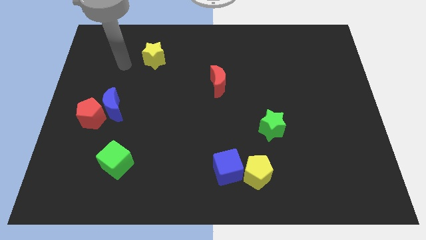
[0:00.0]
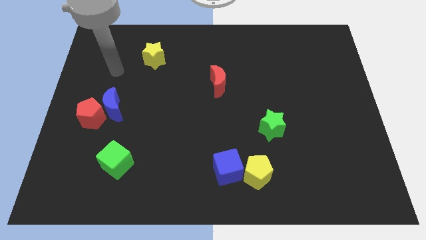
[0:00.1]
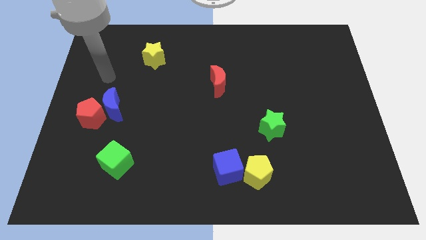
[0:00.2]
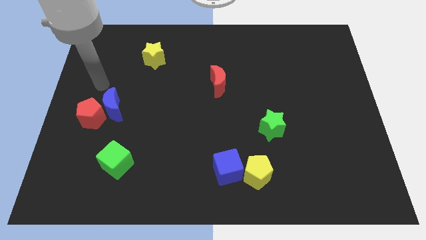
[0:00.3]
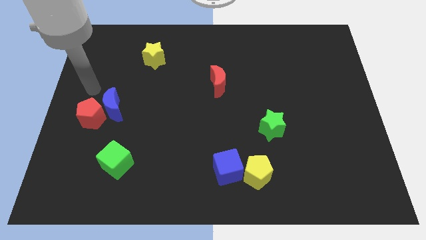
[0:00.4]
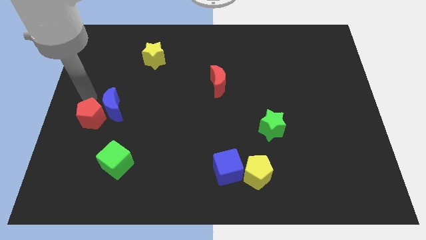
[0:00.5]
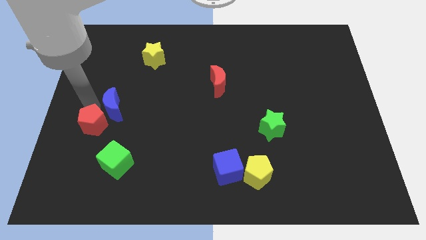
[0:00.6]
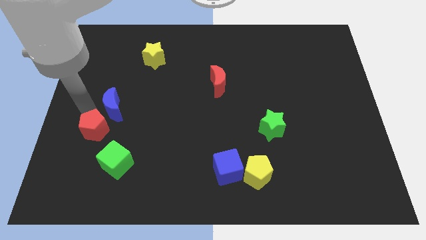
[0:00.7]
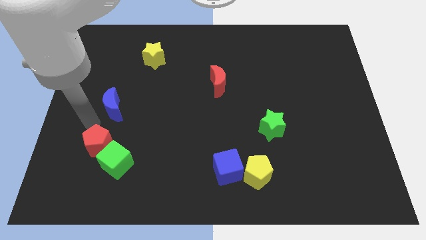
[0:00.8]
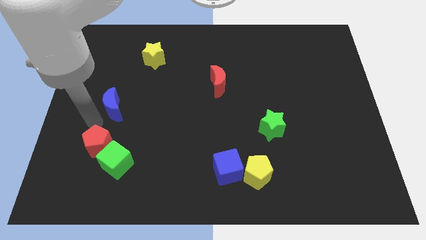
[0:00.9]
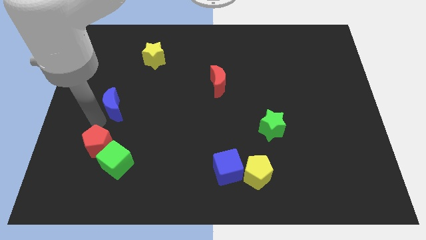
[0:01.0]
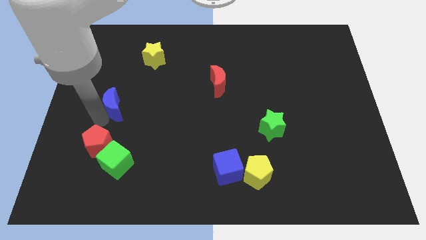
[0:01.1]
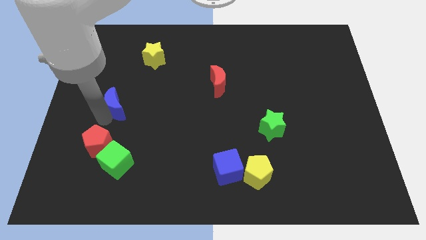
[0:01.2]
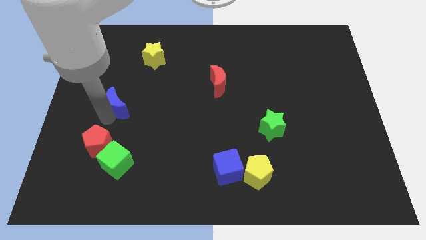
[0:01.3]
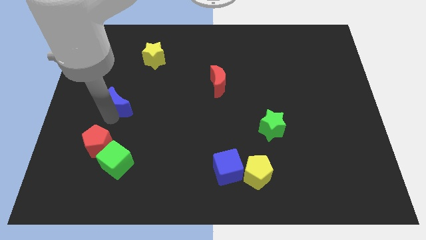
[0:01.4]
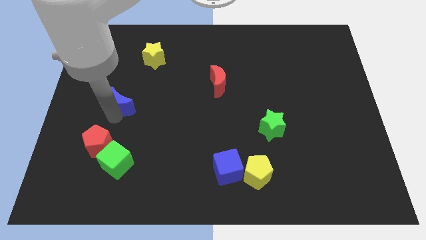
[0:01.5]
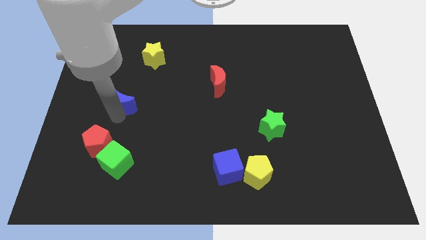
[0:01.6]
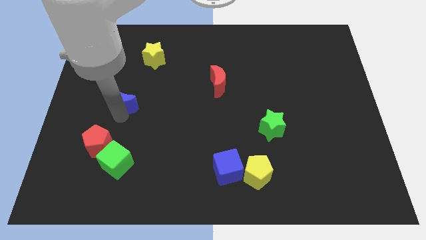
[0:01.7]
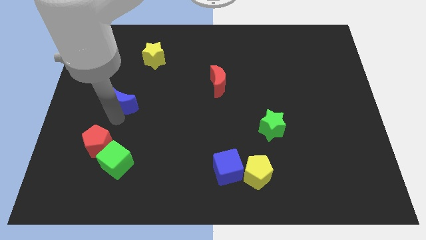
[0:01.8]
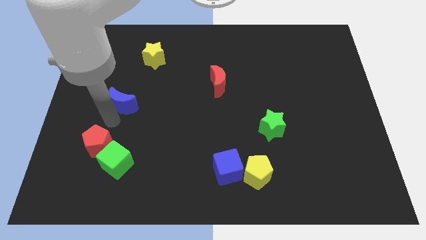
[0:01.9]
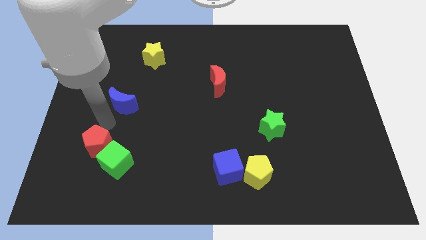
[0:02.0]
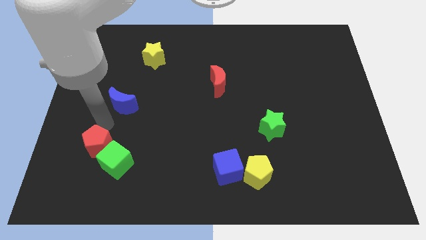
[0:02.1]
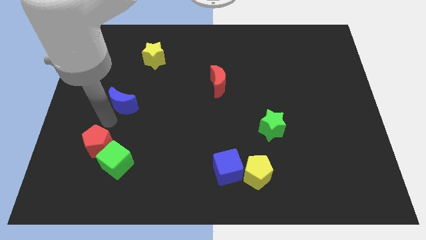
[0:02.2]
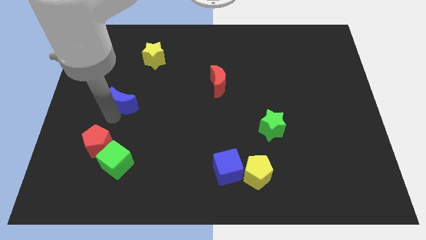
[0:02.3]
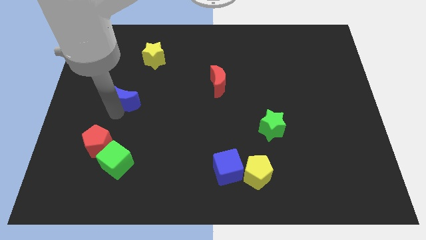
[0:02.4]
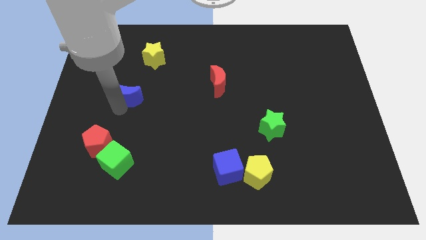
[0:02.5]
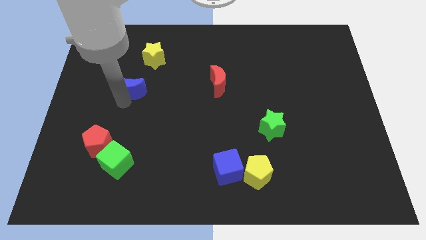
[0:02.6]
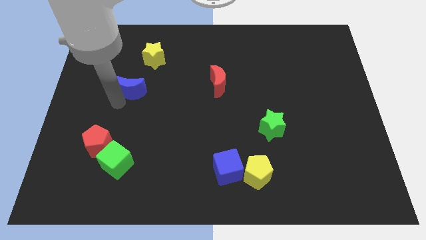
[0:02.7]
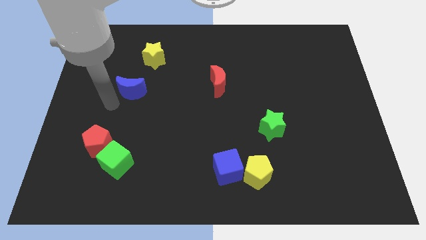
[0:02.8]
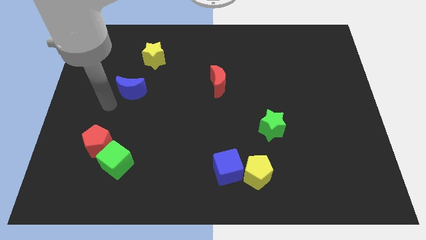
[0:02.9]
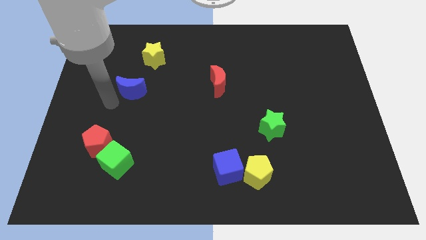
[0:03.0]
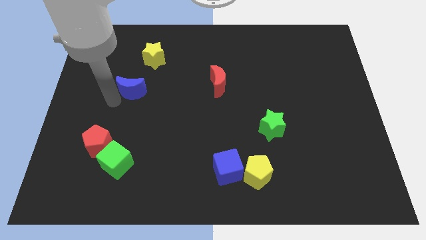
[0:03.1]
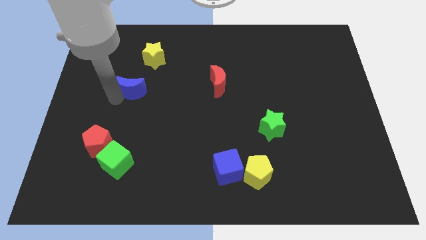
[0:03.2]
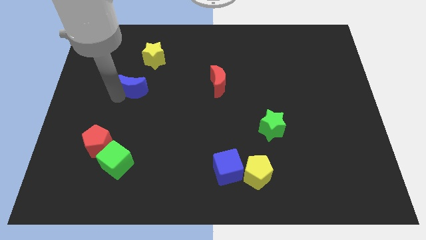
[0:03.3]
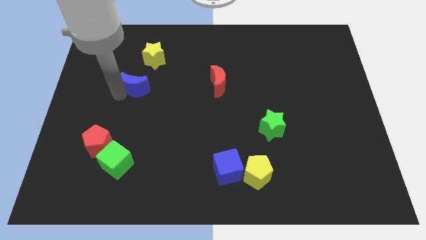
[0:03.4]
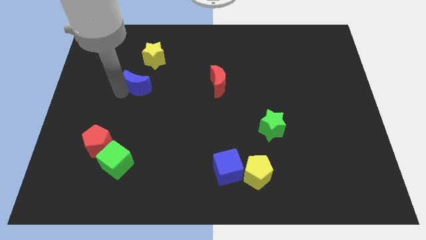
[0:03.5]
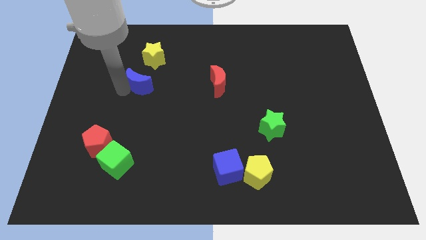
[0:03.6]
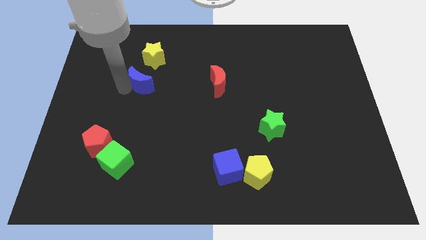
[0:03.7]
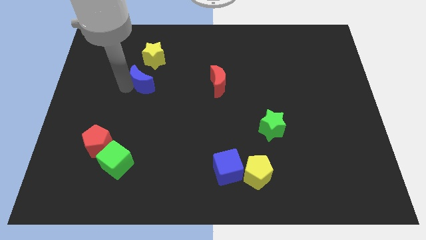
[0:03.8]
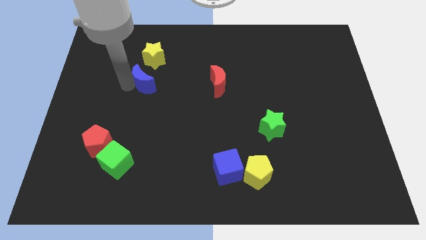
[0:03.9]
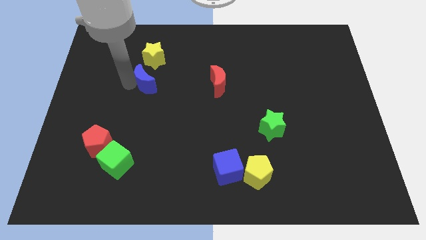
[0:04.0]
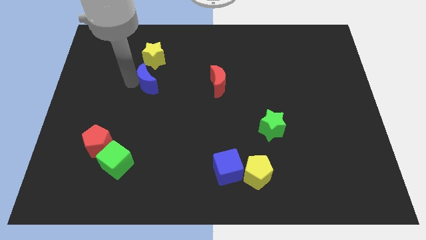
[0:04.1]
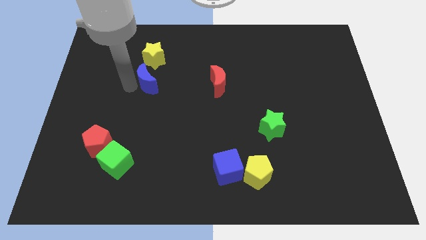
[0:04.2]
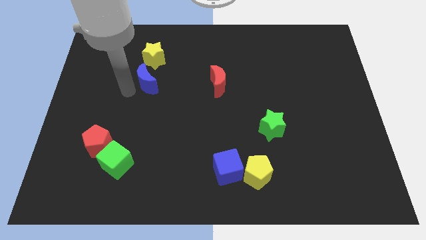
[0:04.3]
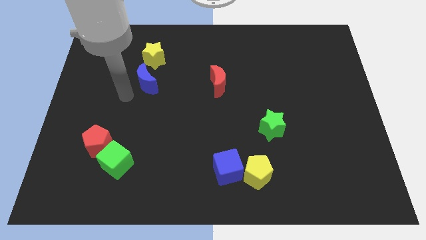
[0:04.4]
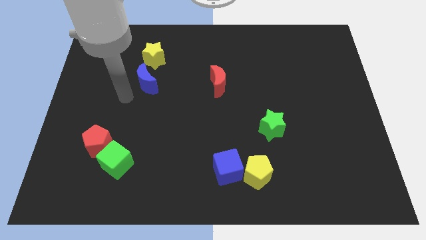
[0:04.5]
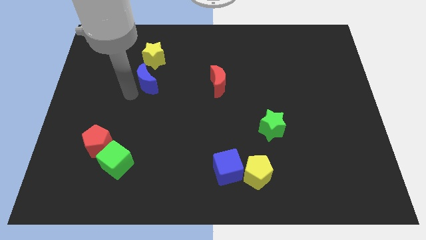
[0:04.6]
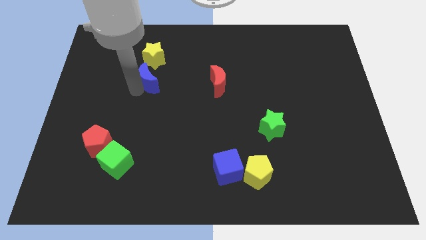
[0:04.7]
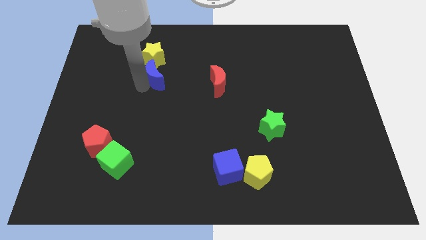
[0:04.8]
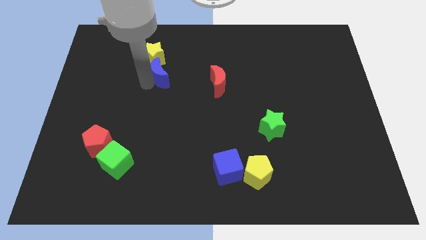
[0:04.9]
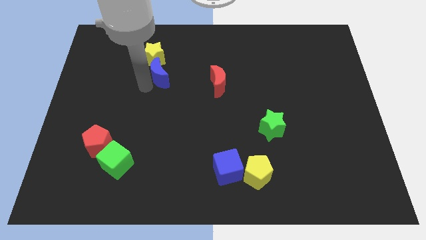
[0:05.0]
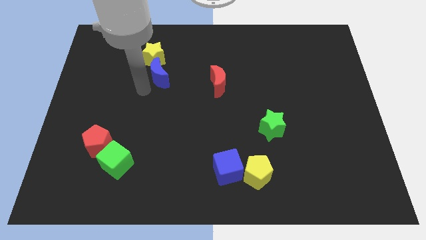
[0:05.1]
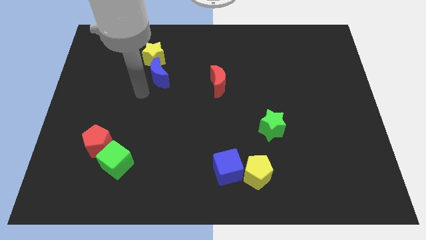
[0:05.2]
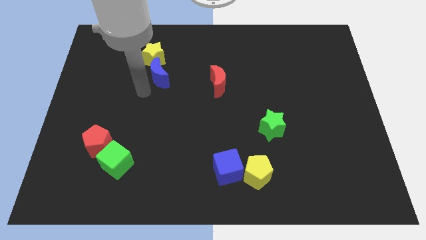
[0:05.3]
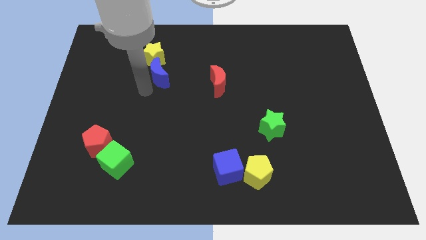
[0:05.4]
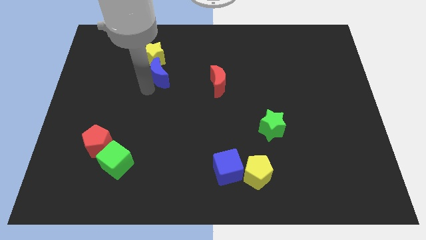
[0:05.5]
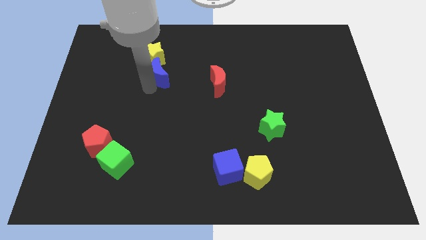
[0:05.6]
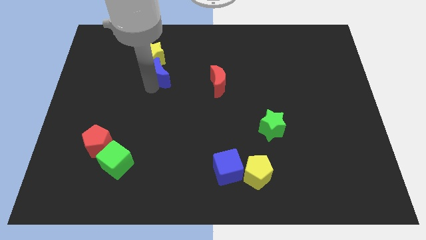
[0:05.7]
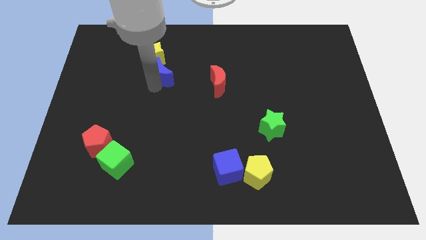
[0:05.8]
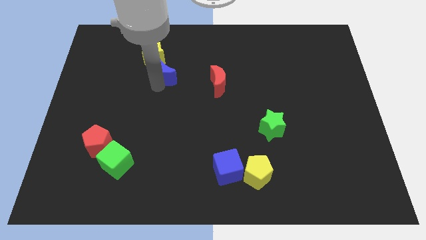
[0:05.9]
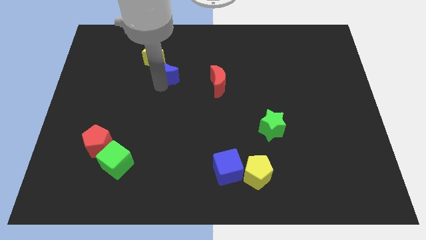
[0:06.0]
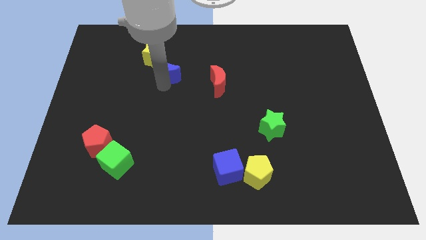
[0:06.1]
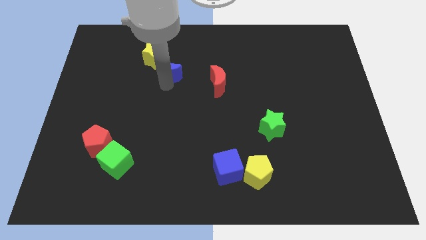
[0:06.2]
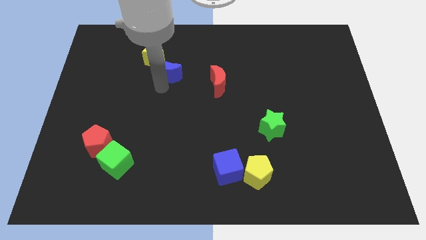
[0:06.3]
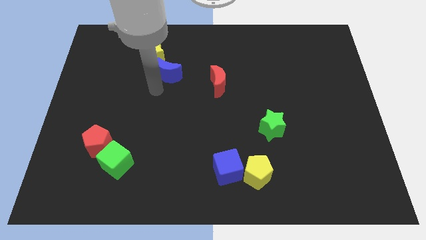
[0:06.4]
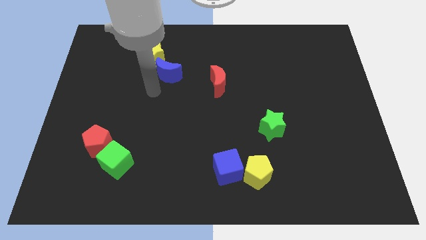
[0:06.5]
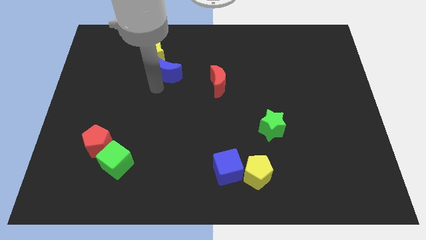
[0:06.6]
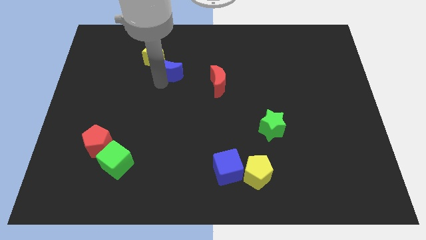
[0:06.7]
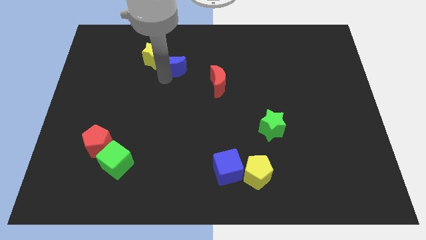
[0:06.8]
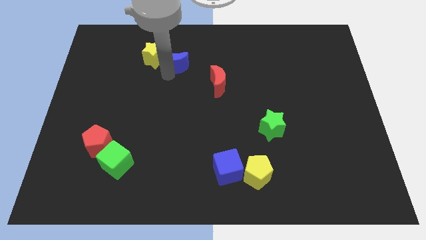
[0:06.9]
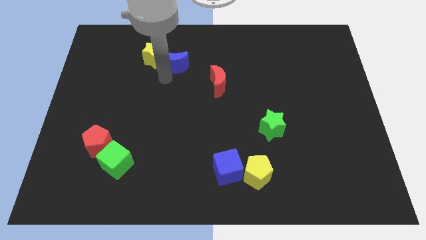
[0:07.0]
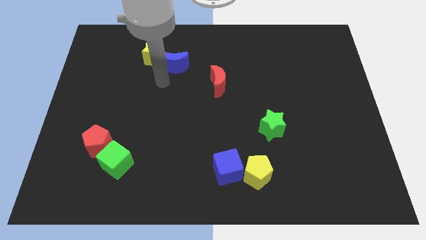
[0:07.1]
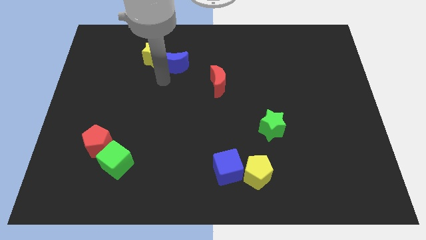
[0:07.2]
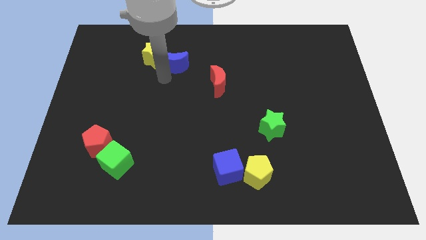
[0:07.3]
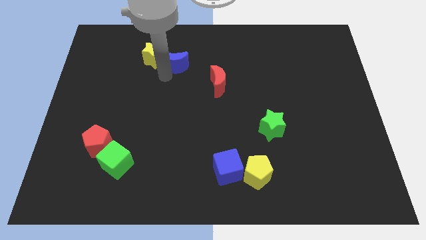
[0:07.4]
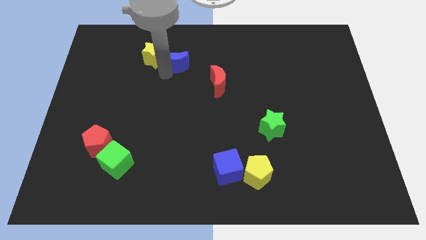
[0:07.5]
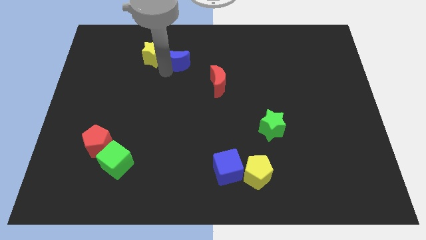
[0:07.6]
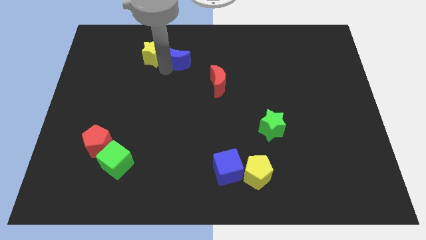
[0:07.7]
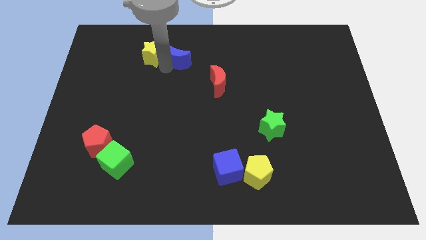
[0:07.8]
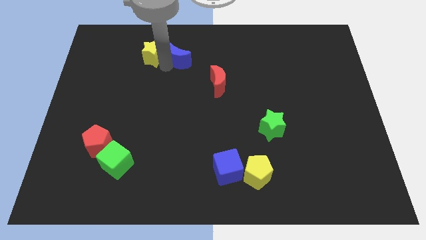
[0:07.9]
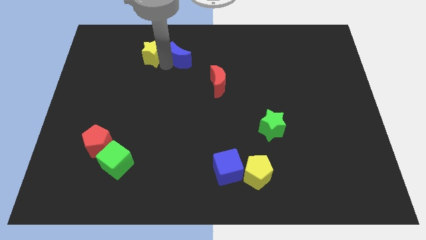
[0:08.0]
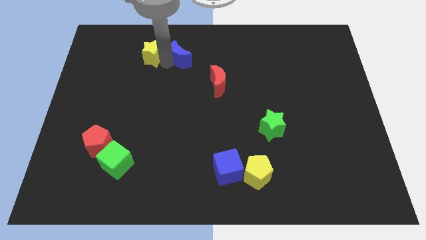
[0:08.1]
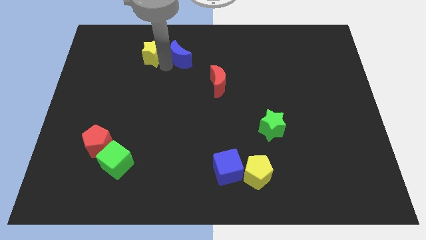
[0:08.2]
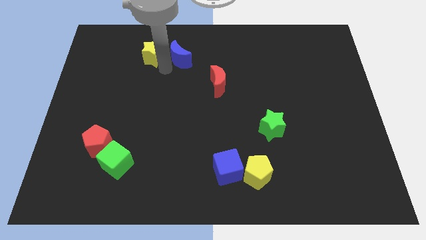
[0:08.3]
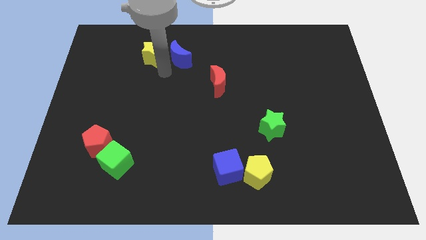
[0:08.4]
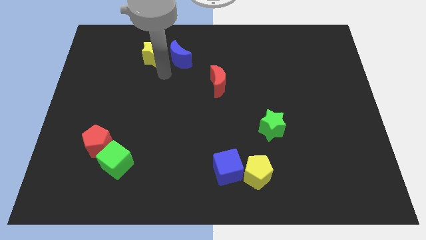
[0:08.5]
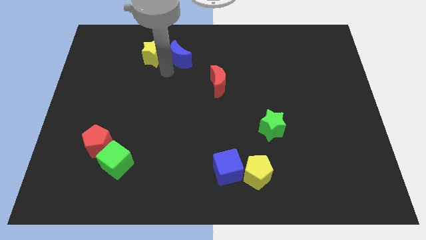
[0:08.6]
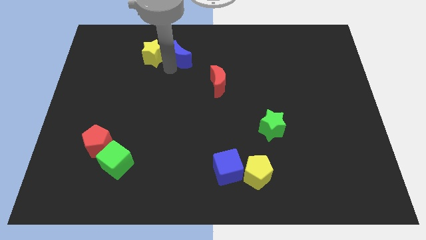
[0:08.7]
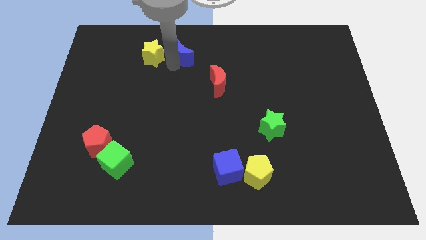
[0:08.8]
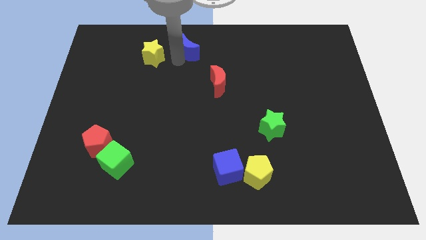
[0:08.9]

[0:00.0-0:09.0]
slide the blue moon to the towards your base
